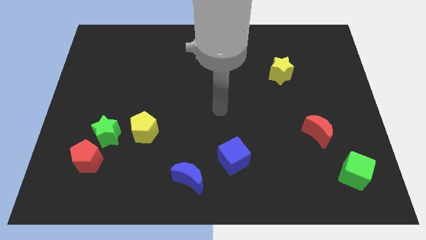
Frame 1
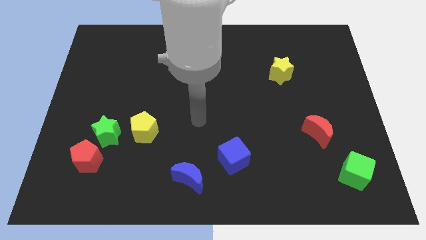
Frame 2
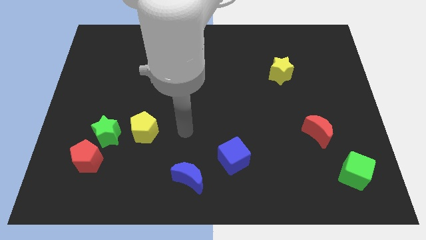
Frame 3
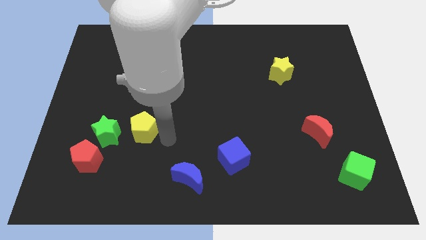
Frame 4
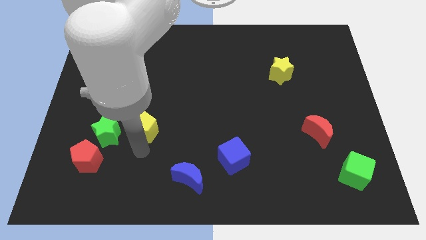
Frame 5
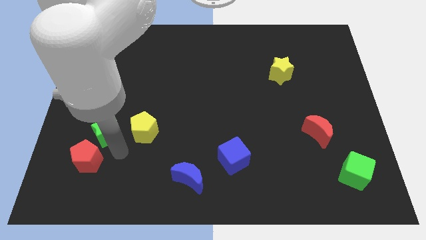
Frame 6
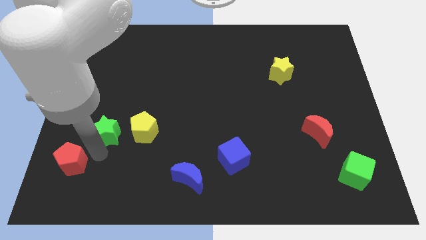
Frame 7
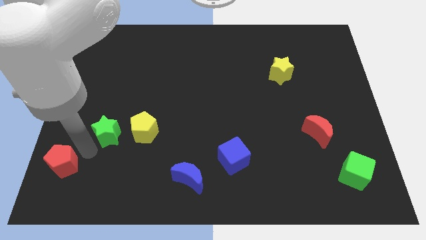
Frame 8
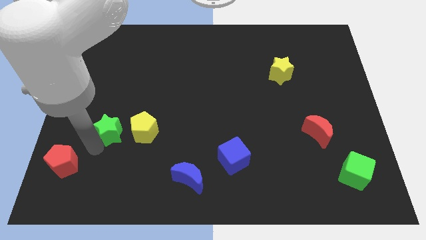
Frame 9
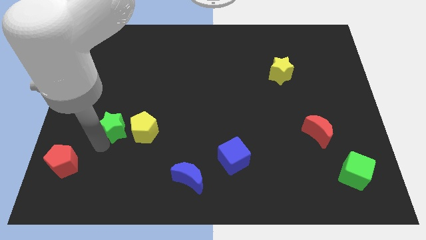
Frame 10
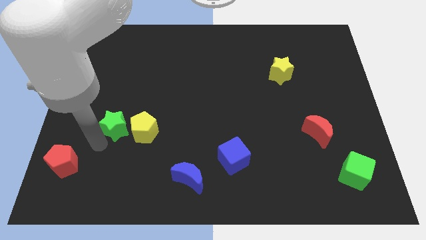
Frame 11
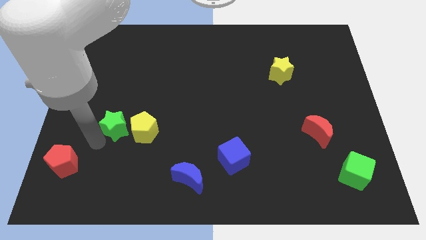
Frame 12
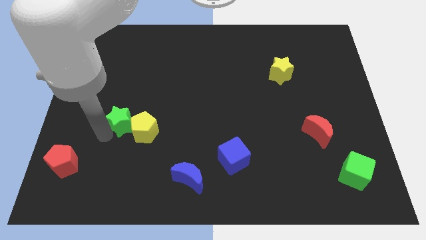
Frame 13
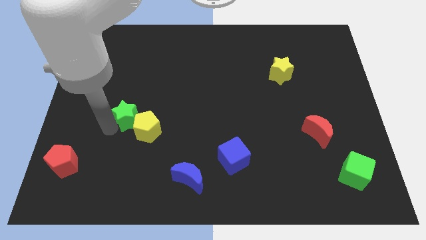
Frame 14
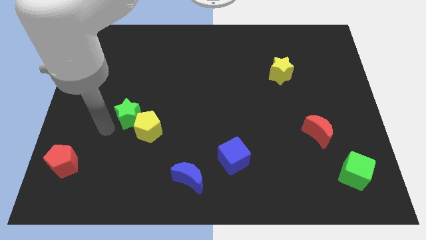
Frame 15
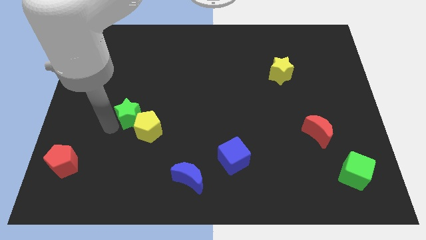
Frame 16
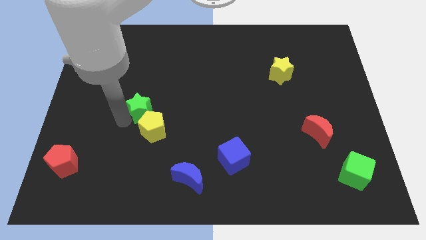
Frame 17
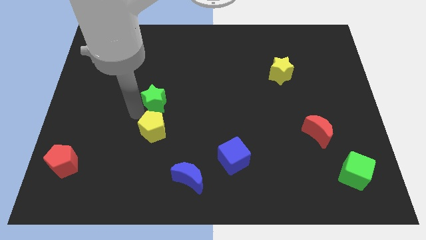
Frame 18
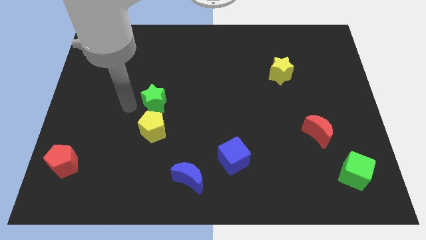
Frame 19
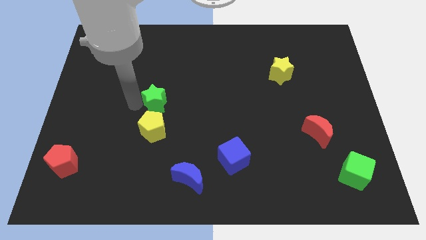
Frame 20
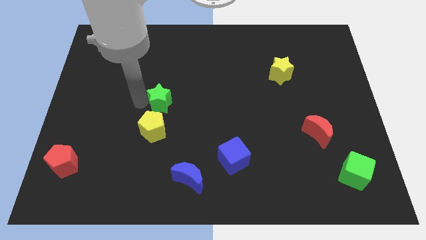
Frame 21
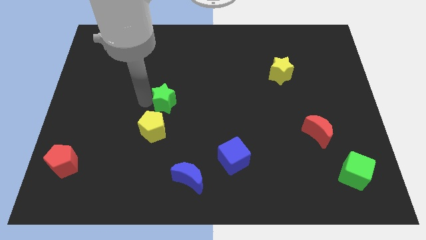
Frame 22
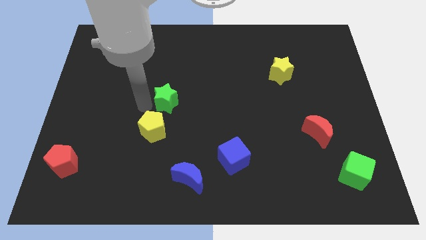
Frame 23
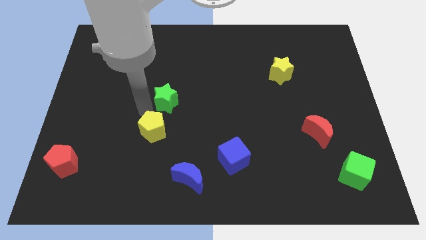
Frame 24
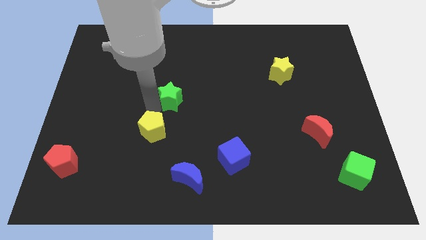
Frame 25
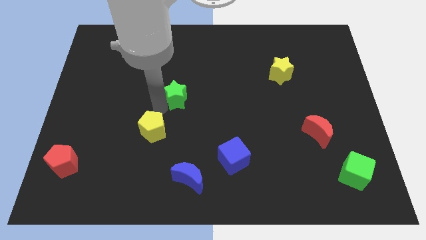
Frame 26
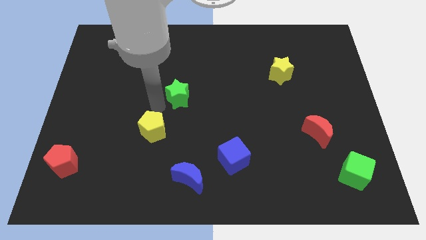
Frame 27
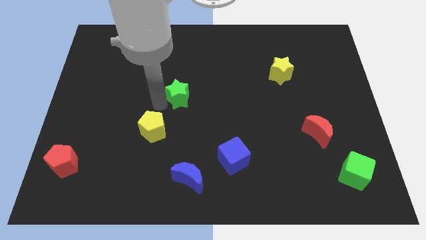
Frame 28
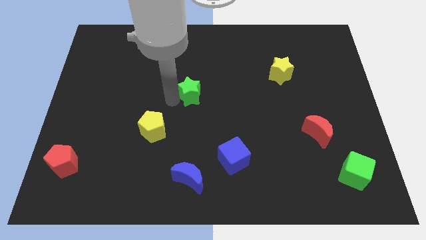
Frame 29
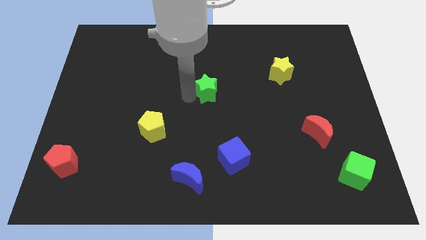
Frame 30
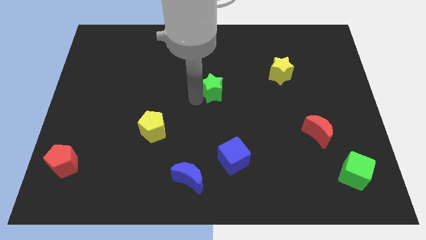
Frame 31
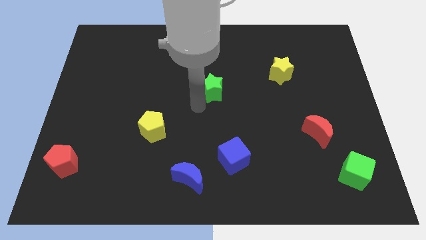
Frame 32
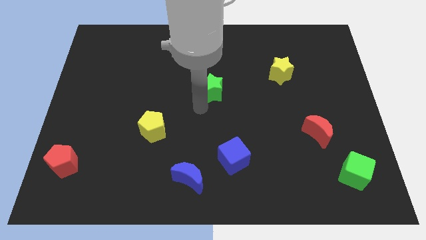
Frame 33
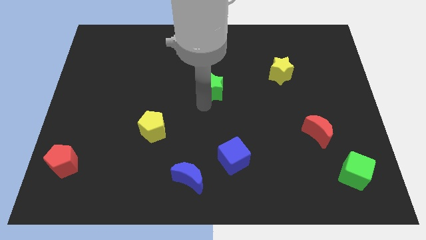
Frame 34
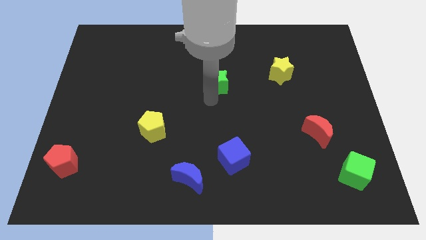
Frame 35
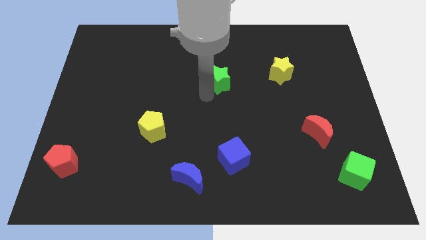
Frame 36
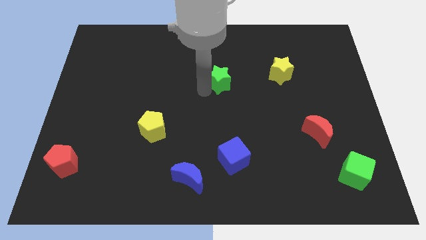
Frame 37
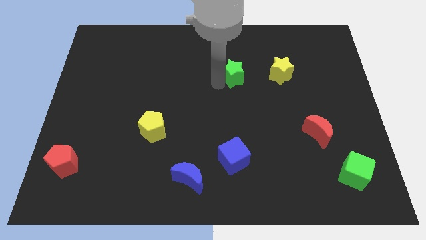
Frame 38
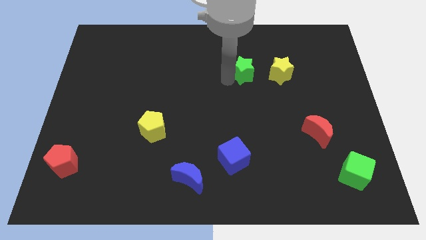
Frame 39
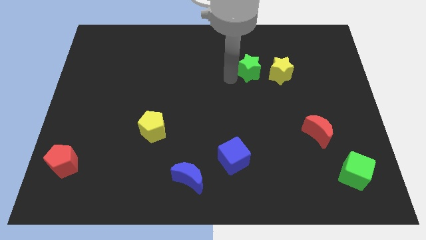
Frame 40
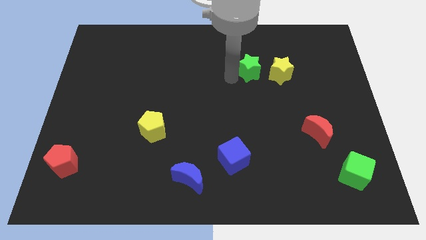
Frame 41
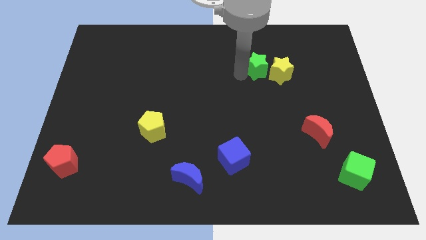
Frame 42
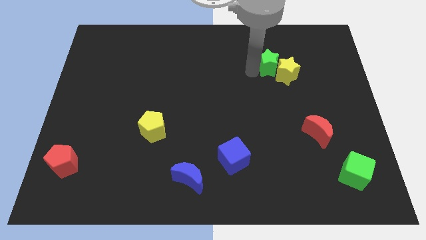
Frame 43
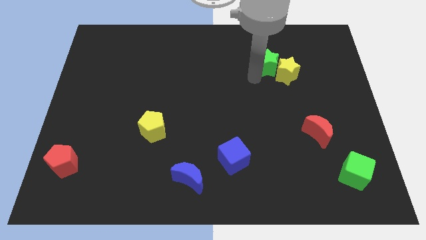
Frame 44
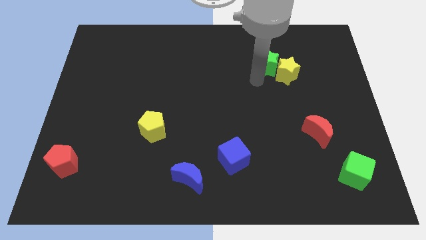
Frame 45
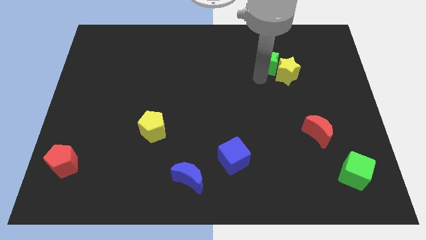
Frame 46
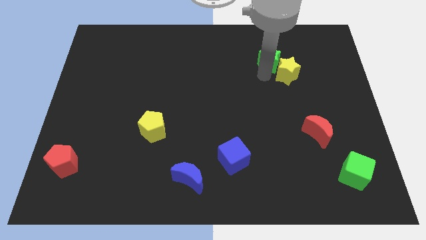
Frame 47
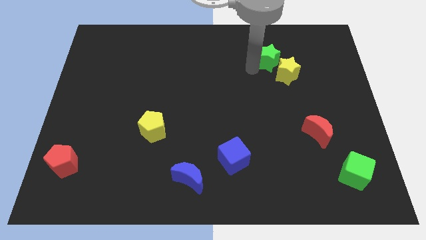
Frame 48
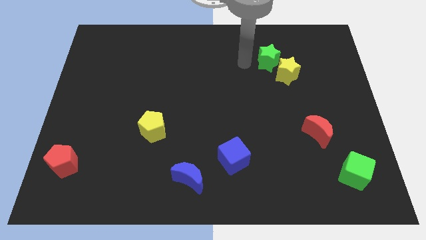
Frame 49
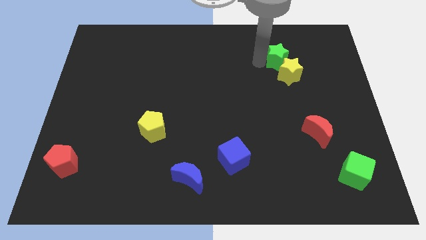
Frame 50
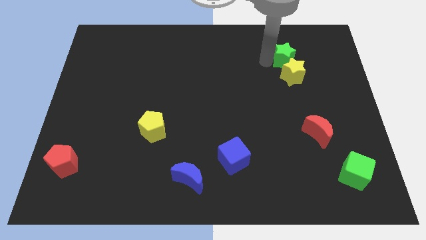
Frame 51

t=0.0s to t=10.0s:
slide the green star to the top right side of the yellow star

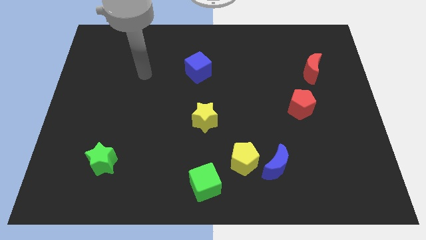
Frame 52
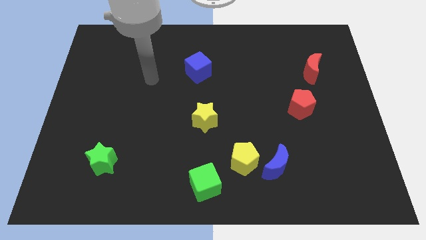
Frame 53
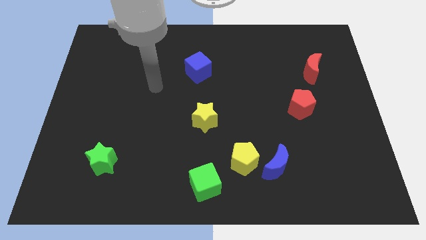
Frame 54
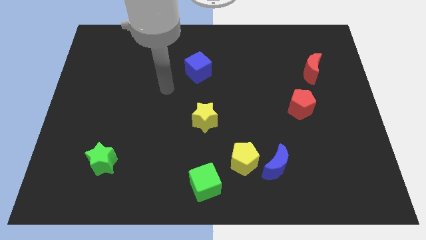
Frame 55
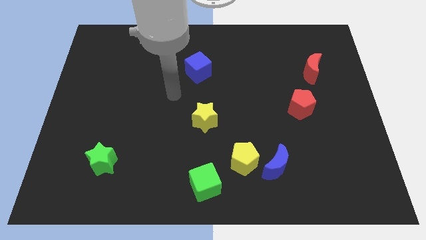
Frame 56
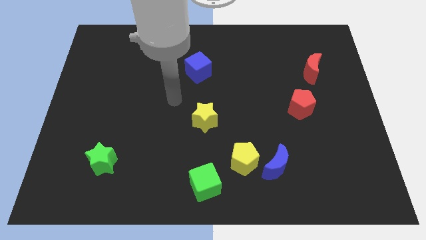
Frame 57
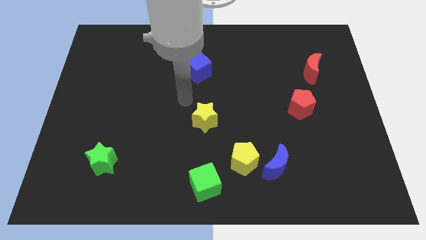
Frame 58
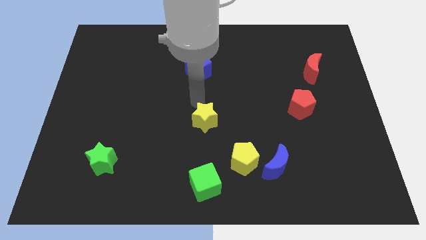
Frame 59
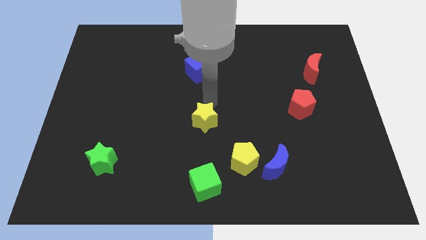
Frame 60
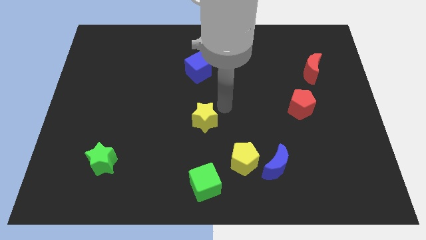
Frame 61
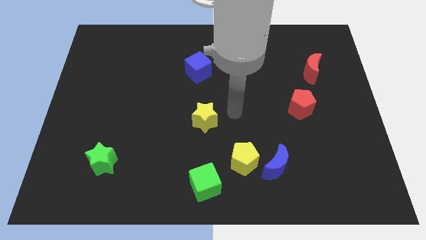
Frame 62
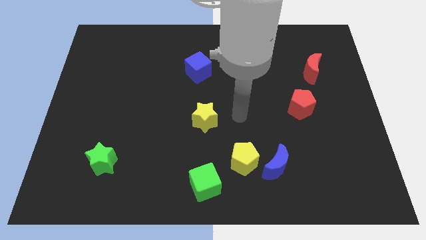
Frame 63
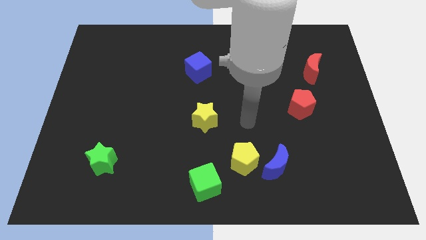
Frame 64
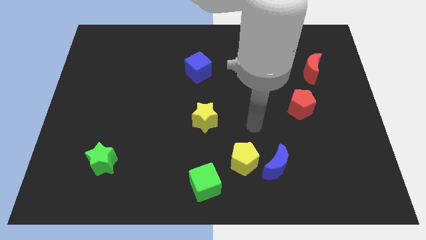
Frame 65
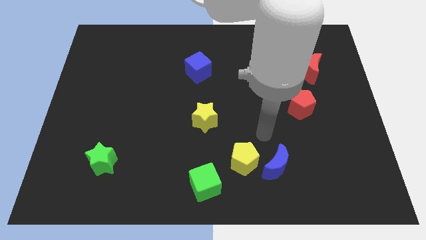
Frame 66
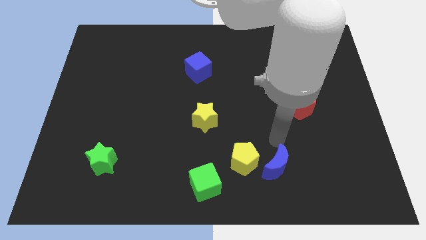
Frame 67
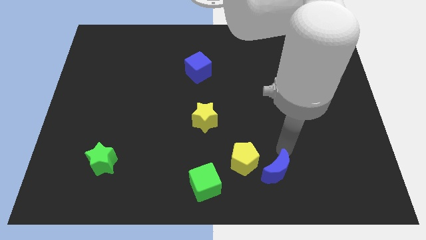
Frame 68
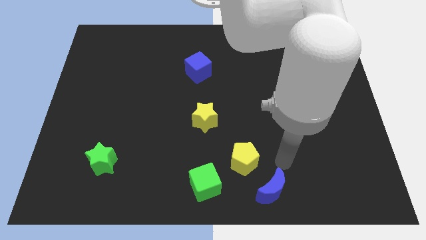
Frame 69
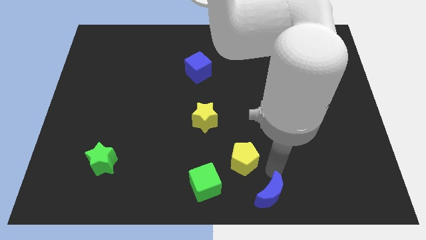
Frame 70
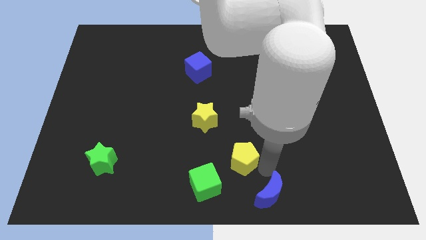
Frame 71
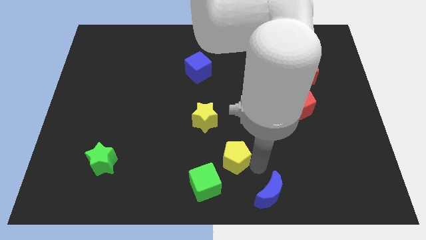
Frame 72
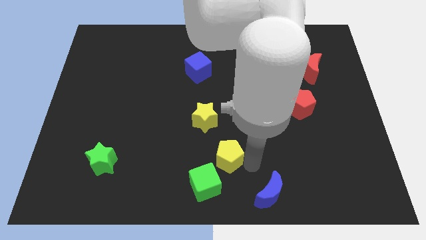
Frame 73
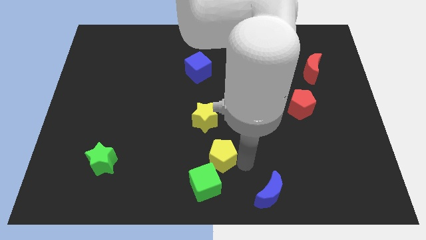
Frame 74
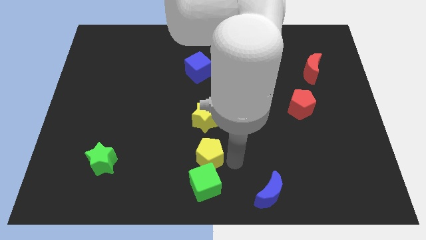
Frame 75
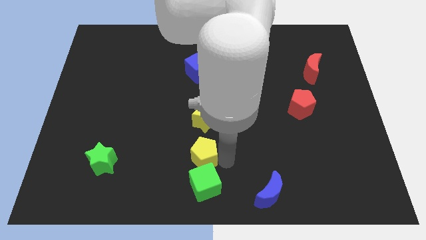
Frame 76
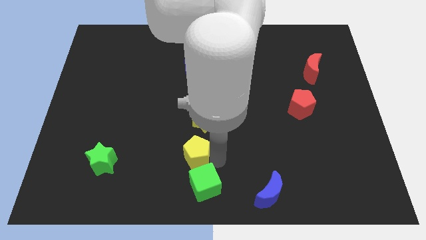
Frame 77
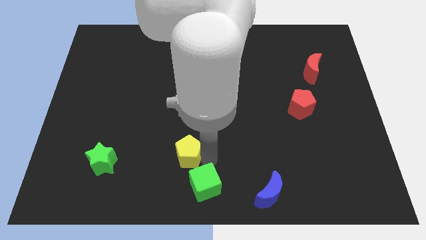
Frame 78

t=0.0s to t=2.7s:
slide the yellow pentagon diagonally down and to the left of the yellow star
